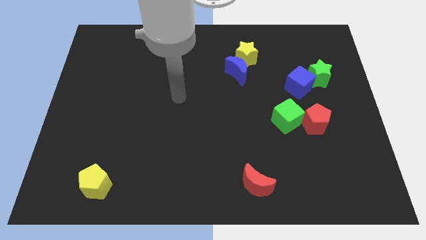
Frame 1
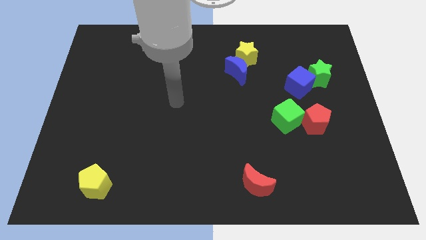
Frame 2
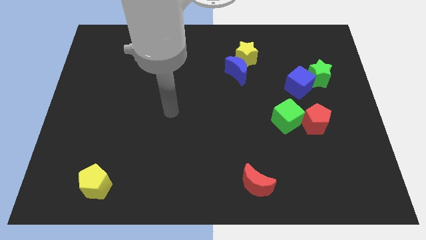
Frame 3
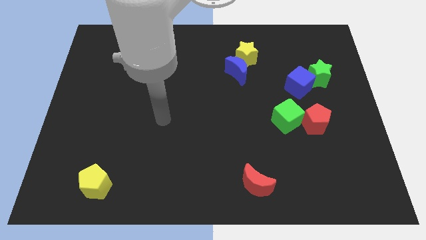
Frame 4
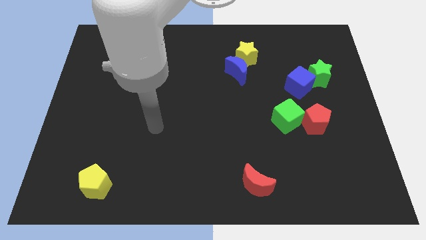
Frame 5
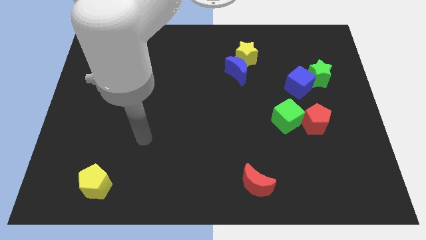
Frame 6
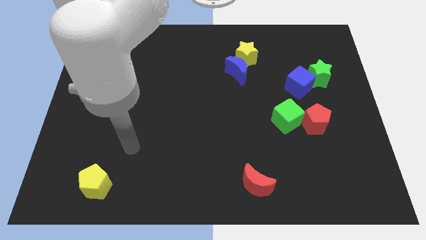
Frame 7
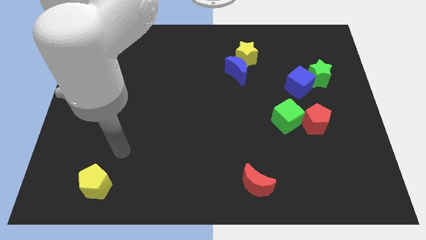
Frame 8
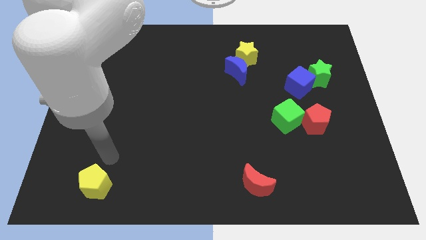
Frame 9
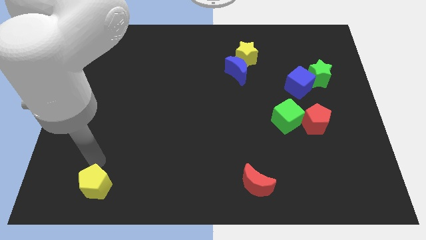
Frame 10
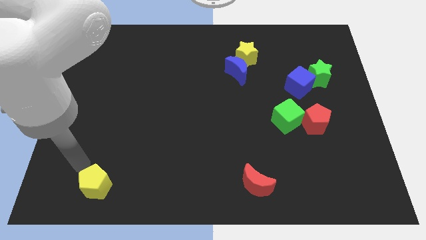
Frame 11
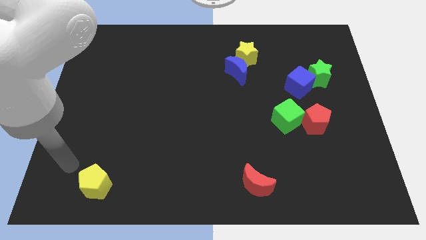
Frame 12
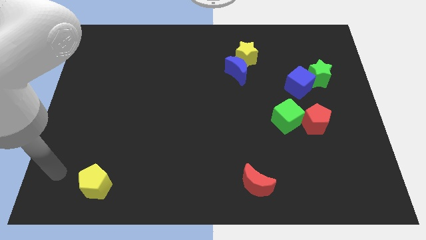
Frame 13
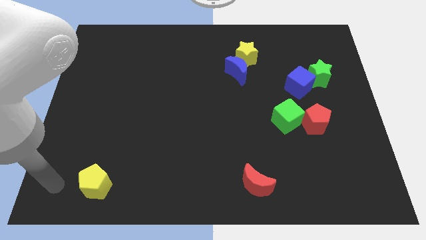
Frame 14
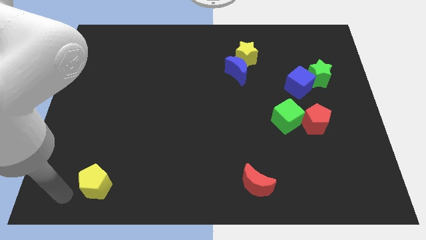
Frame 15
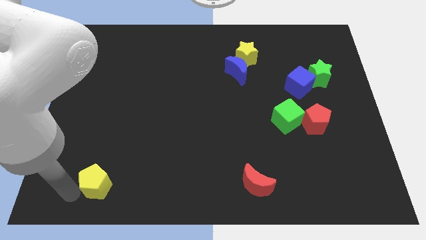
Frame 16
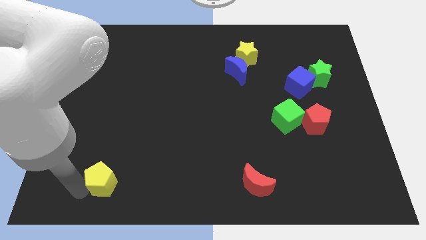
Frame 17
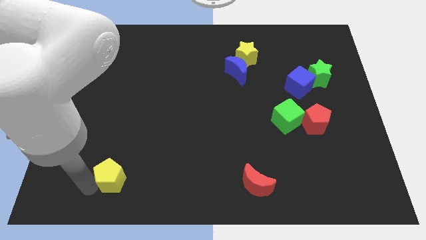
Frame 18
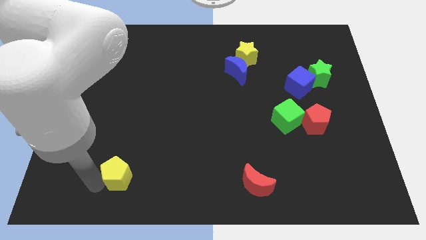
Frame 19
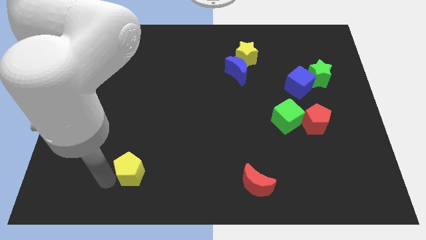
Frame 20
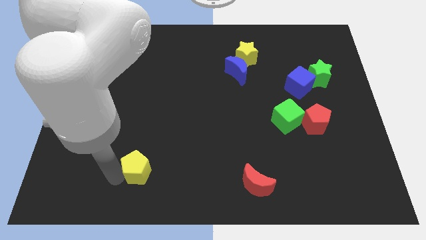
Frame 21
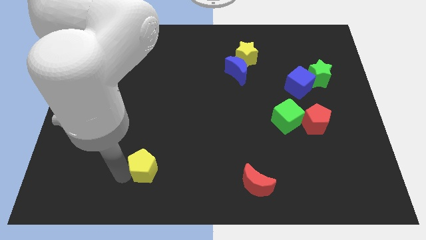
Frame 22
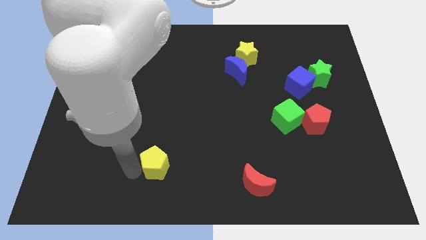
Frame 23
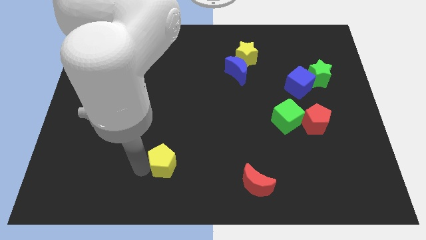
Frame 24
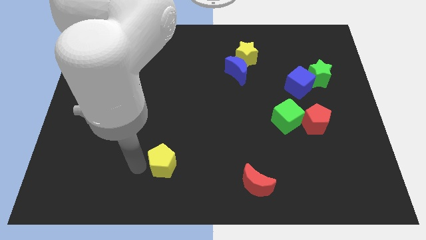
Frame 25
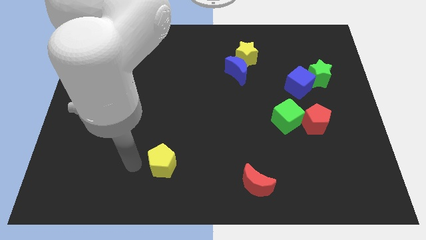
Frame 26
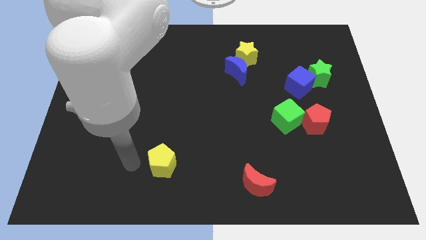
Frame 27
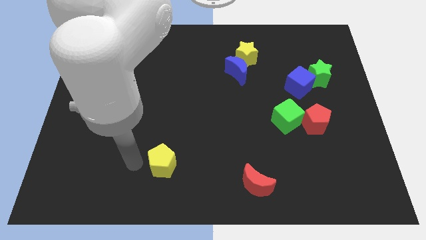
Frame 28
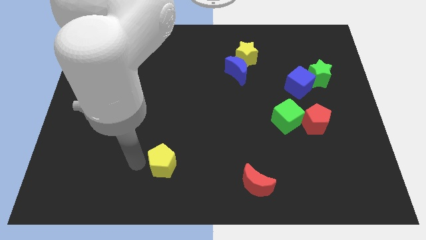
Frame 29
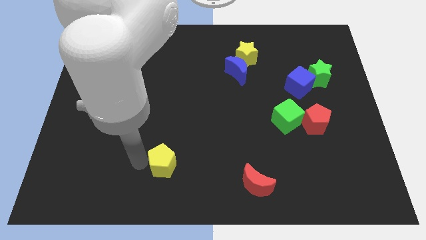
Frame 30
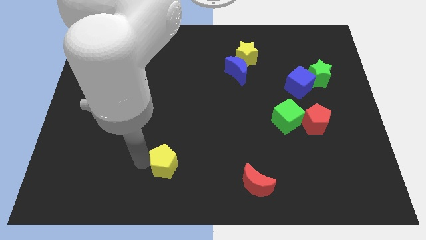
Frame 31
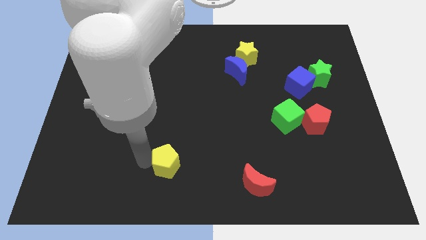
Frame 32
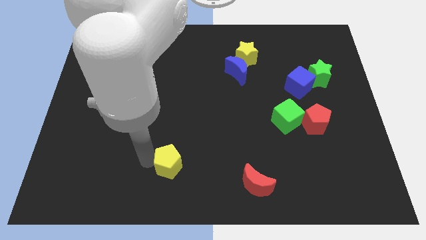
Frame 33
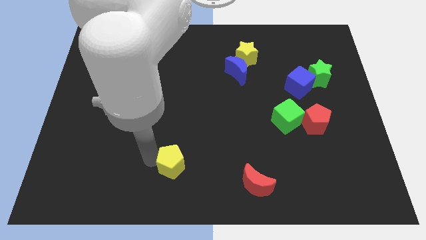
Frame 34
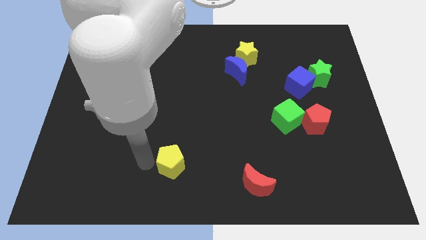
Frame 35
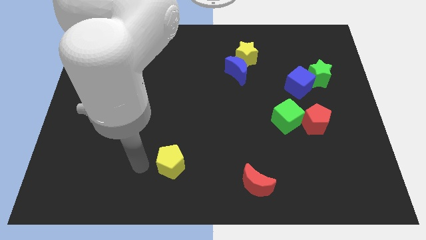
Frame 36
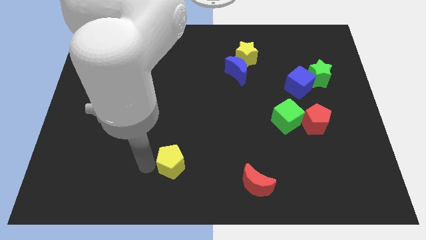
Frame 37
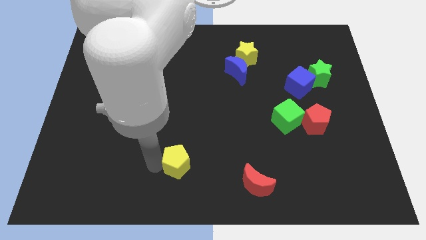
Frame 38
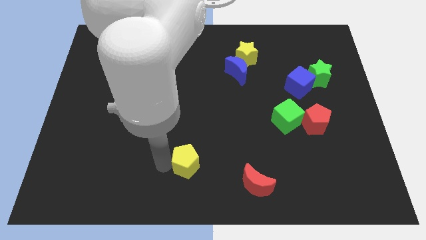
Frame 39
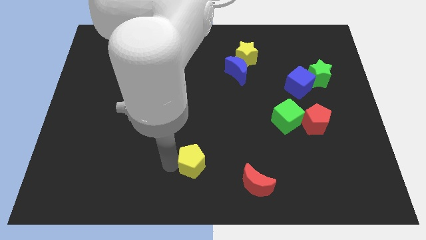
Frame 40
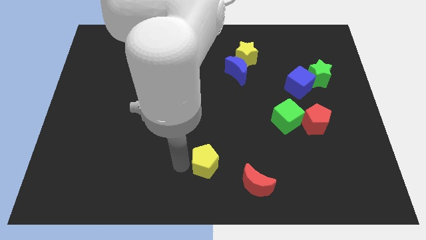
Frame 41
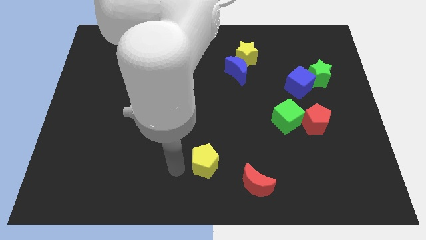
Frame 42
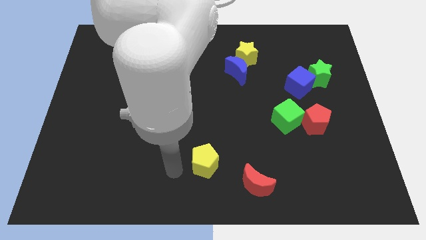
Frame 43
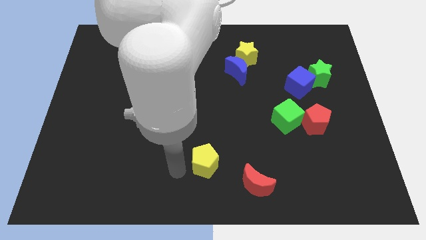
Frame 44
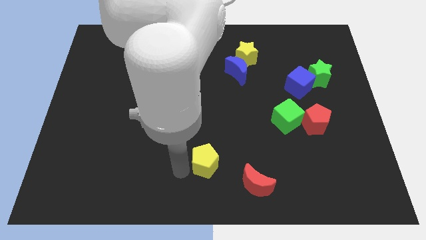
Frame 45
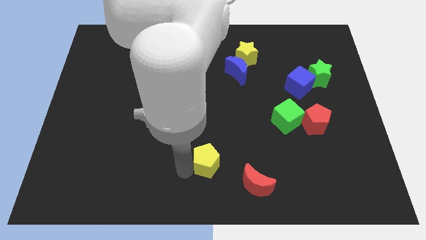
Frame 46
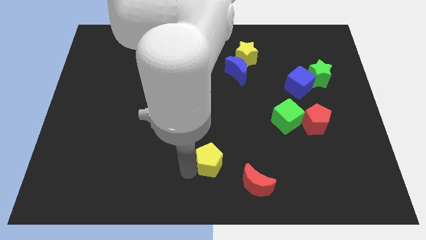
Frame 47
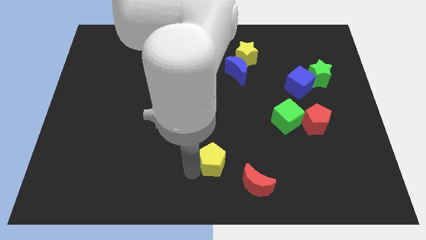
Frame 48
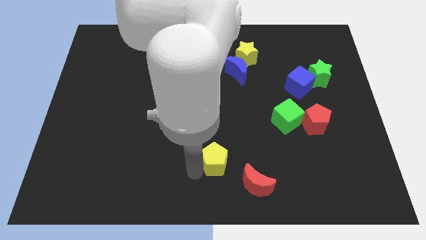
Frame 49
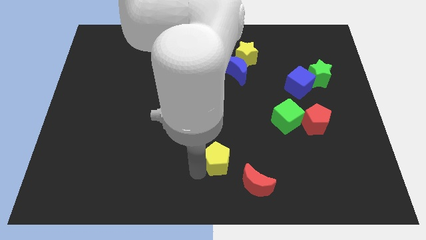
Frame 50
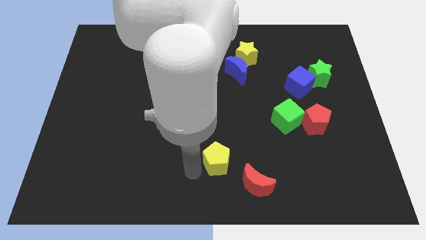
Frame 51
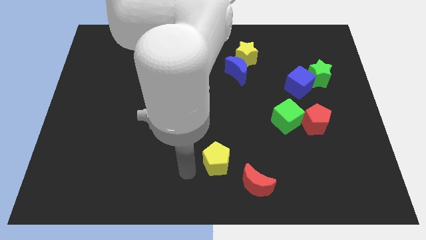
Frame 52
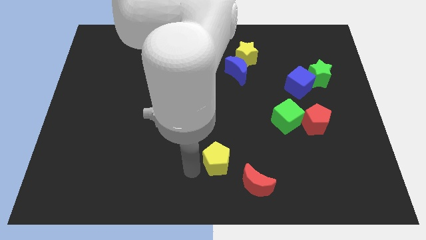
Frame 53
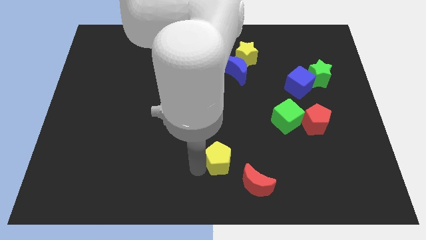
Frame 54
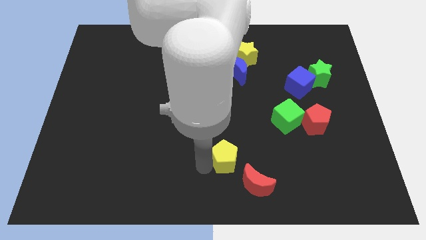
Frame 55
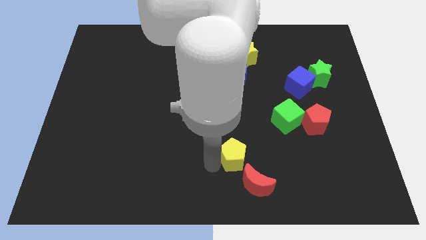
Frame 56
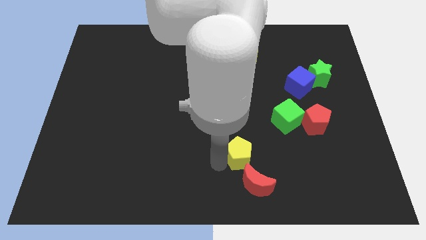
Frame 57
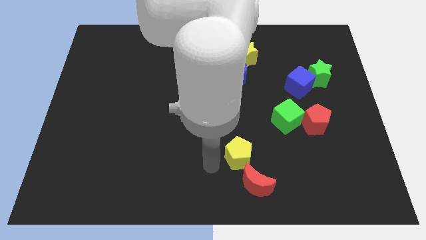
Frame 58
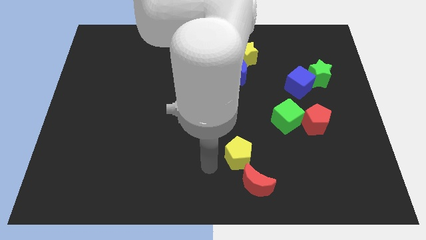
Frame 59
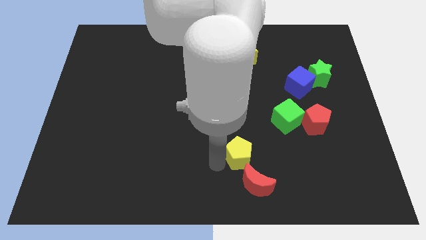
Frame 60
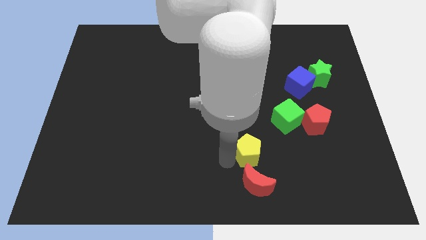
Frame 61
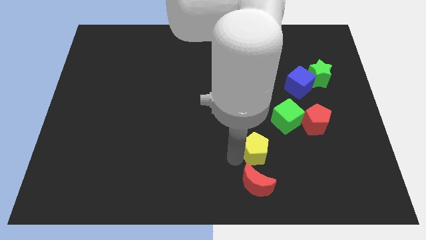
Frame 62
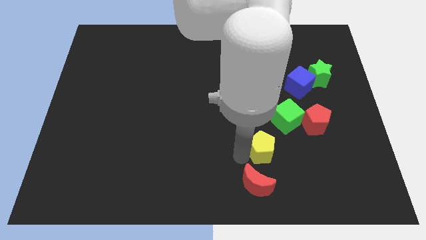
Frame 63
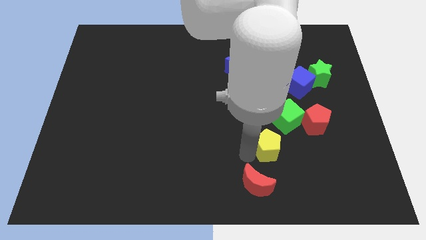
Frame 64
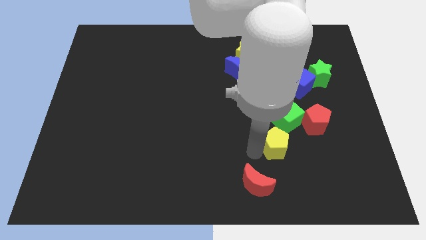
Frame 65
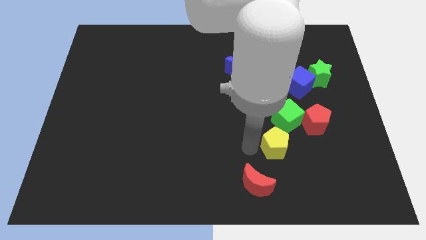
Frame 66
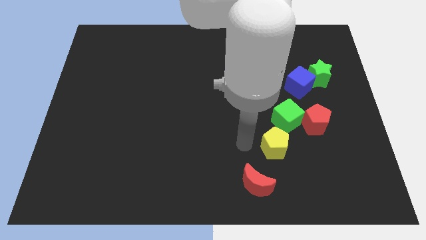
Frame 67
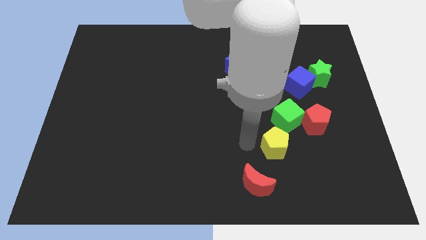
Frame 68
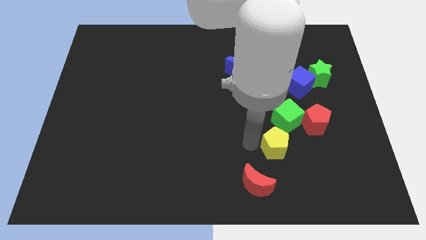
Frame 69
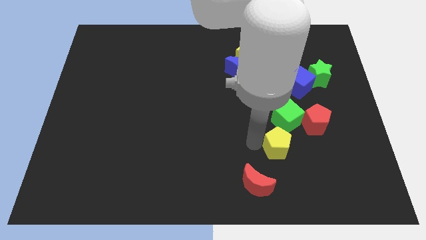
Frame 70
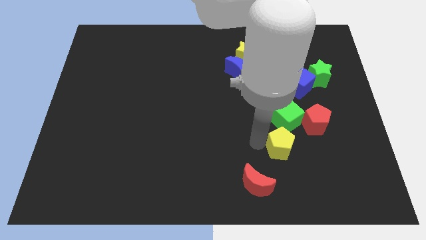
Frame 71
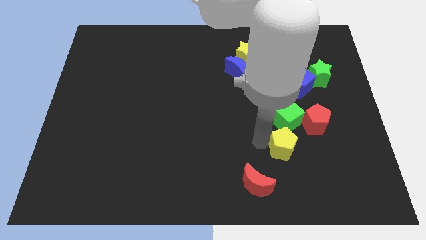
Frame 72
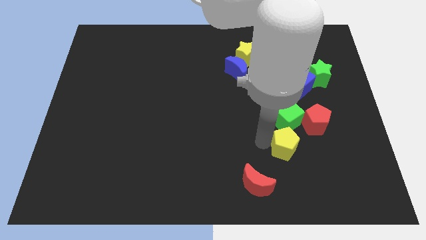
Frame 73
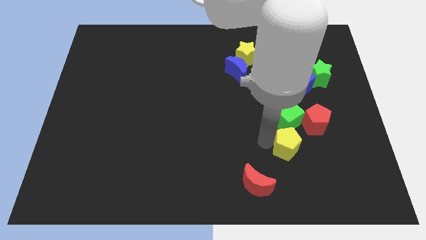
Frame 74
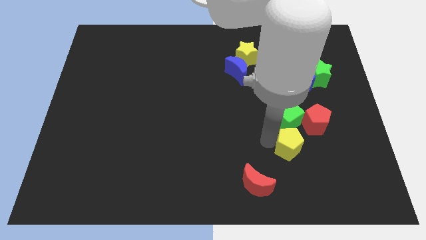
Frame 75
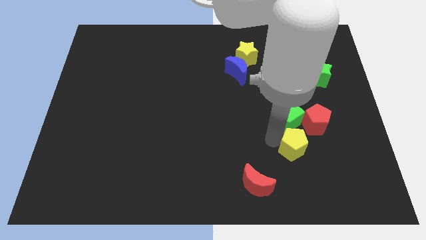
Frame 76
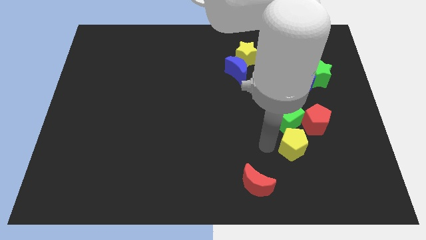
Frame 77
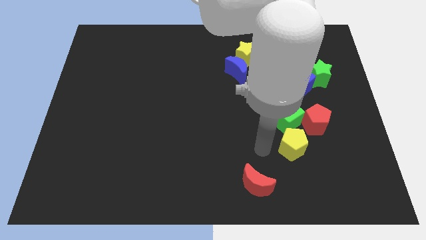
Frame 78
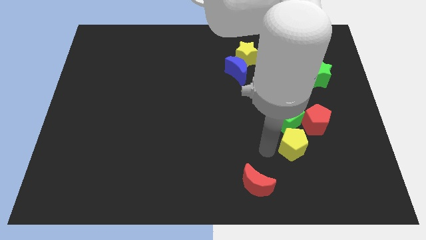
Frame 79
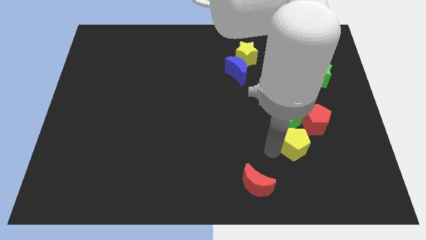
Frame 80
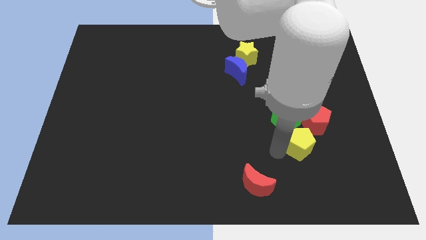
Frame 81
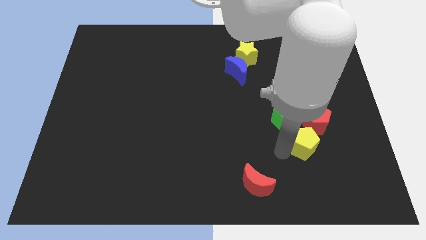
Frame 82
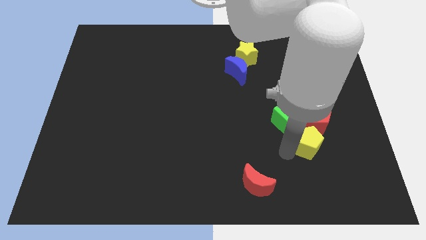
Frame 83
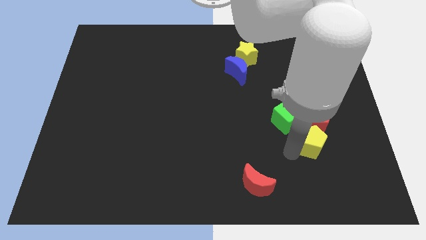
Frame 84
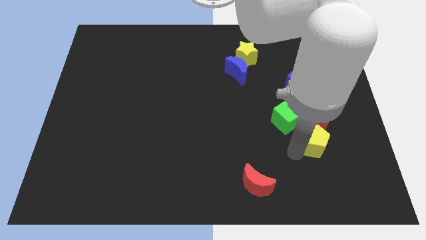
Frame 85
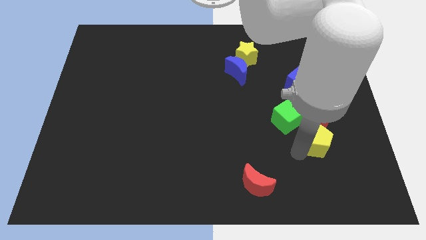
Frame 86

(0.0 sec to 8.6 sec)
push the yellow pentagon to the bottom right of the red pentagon
